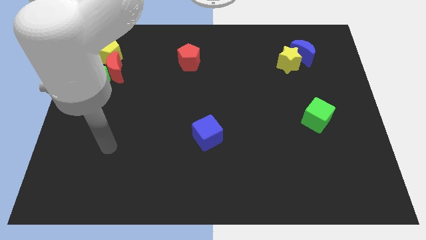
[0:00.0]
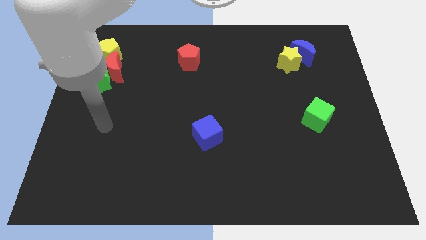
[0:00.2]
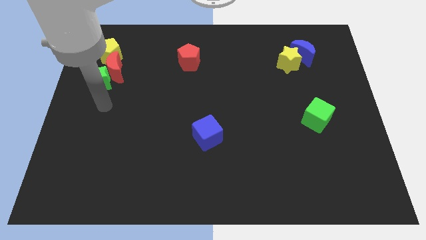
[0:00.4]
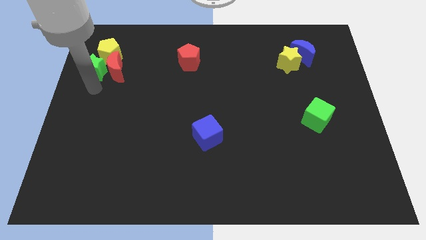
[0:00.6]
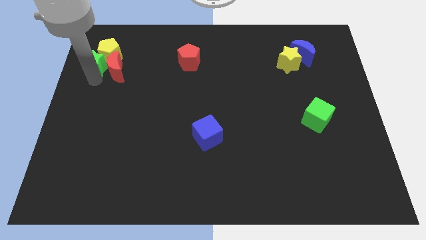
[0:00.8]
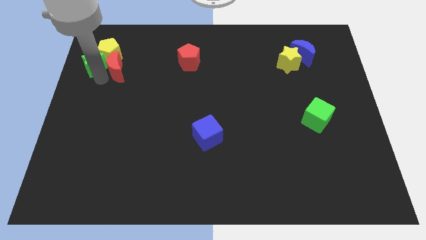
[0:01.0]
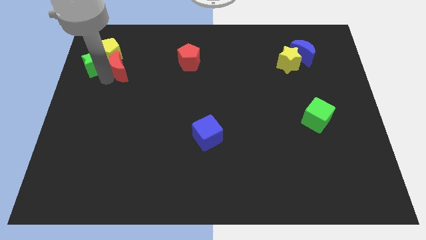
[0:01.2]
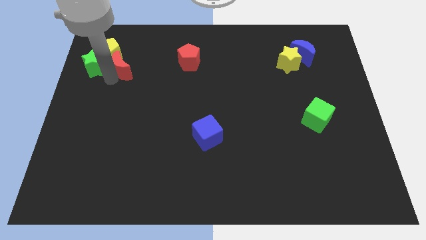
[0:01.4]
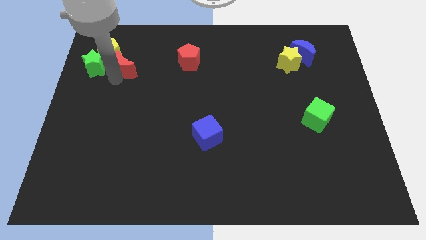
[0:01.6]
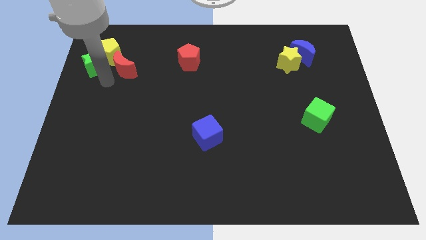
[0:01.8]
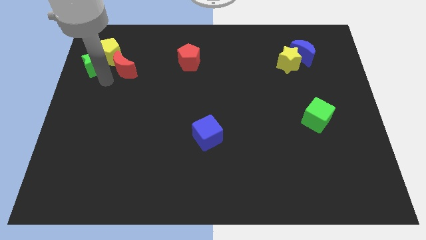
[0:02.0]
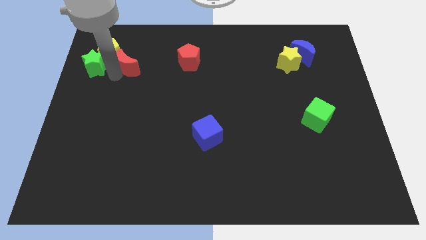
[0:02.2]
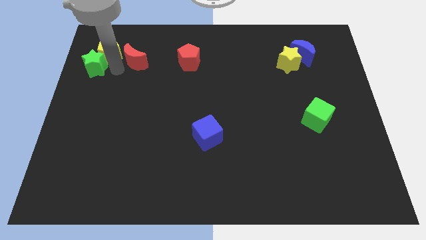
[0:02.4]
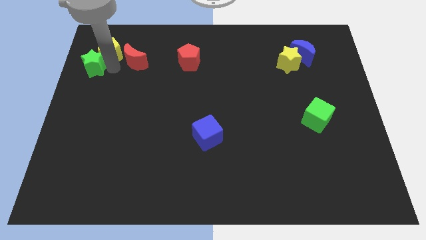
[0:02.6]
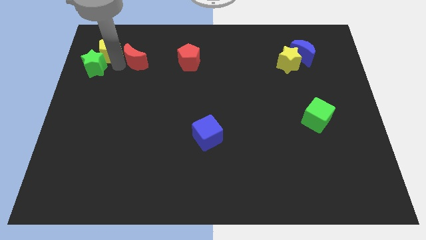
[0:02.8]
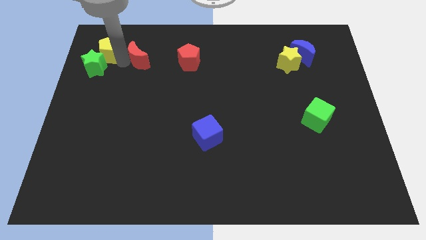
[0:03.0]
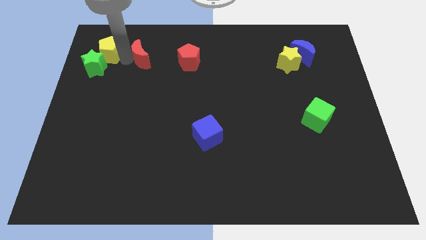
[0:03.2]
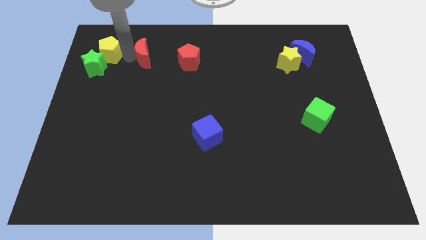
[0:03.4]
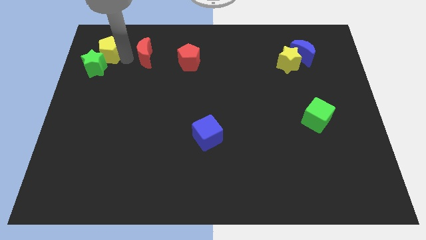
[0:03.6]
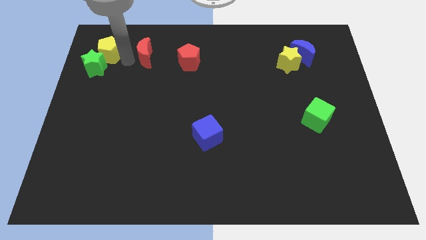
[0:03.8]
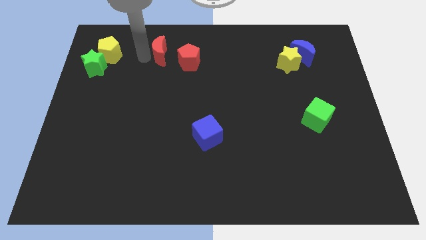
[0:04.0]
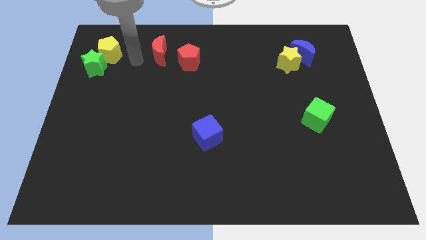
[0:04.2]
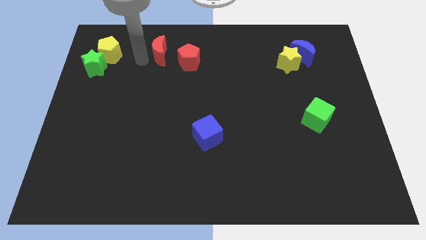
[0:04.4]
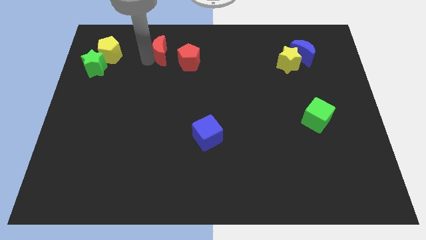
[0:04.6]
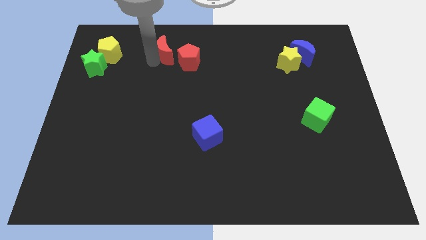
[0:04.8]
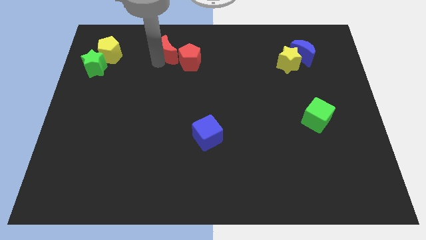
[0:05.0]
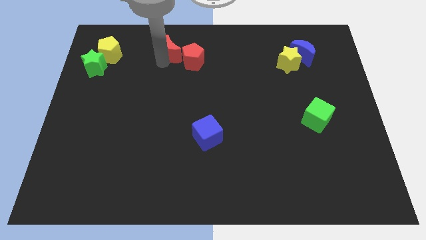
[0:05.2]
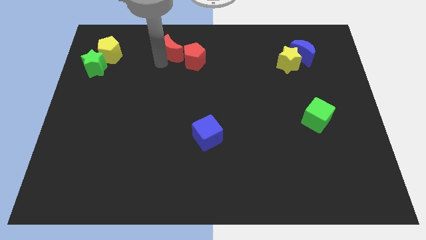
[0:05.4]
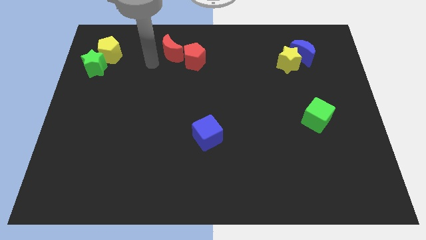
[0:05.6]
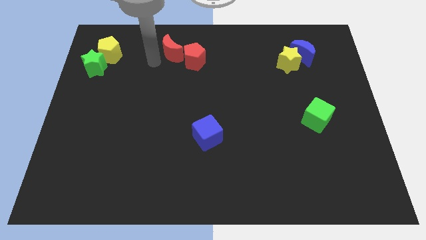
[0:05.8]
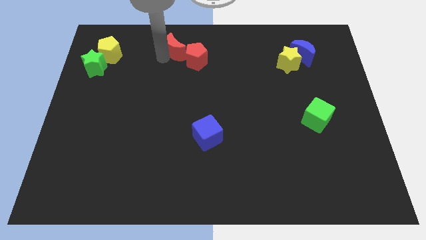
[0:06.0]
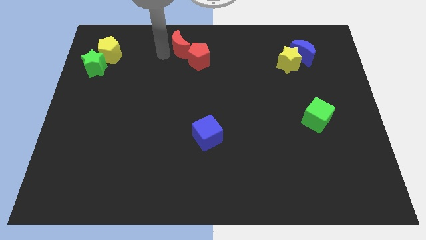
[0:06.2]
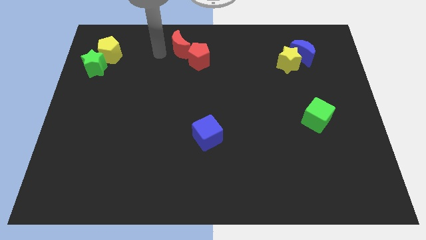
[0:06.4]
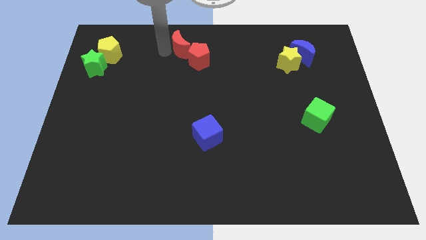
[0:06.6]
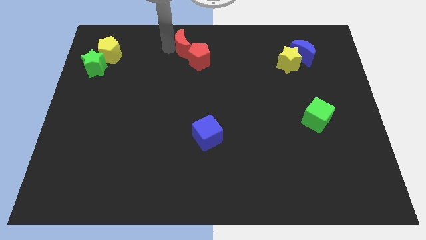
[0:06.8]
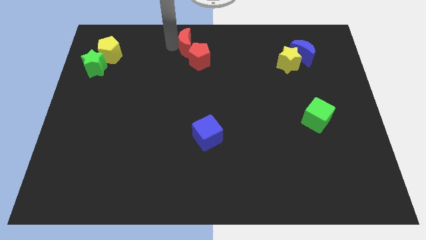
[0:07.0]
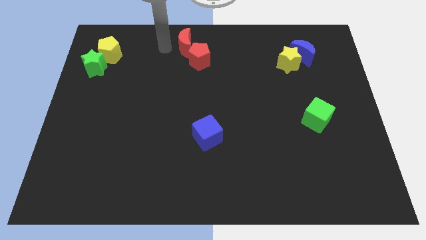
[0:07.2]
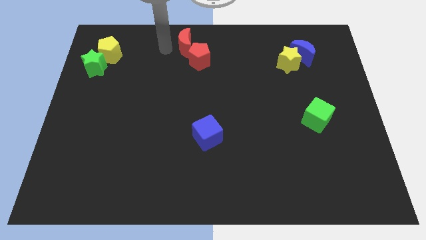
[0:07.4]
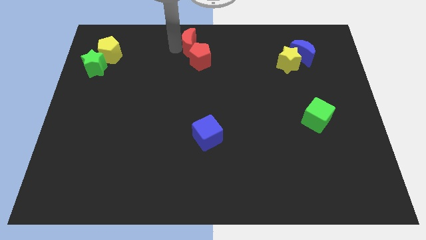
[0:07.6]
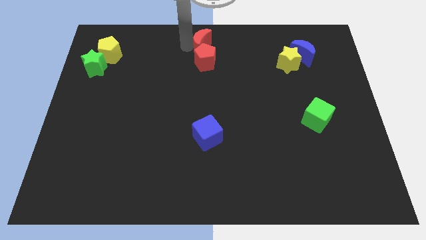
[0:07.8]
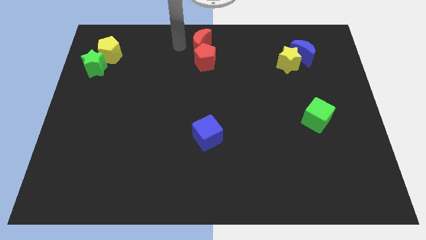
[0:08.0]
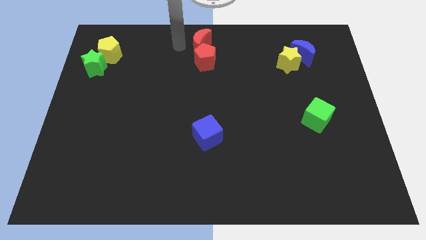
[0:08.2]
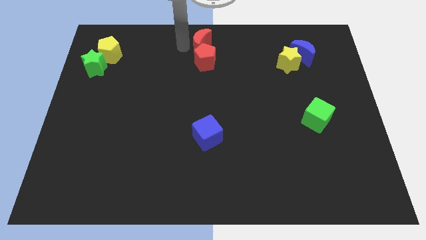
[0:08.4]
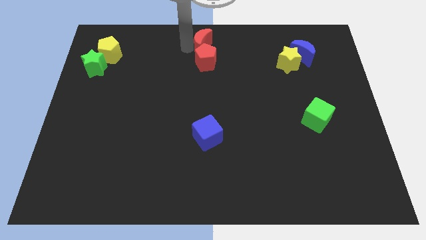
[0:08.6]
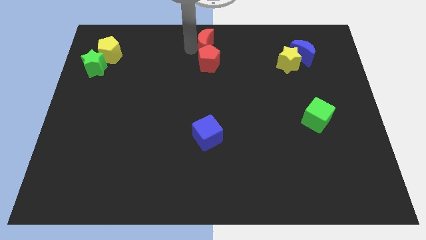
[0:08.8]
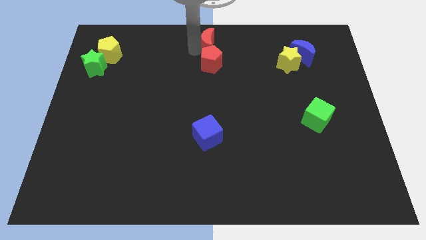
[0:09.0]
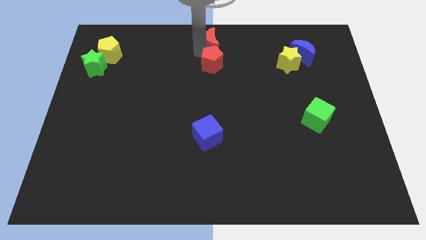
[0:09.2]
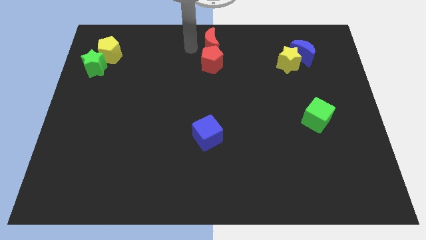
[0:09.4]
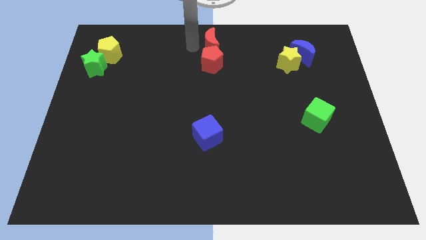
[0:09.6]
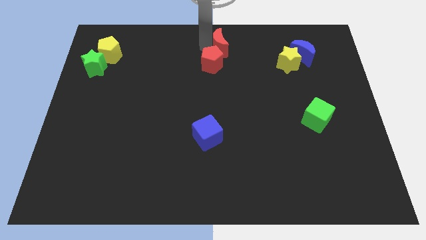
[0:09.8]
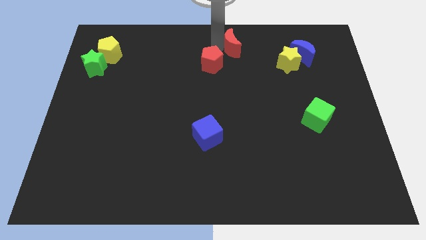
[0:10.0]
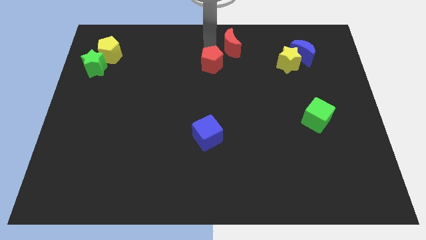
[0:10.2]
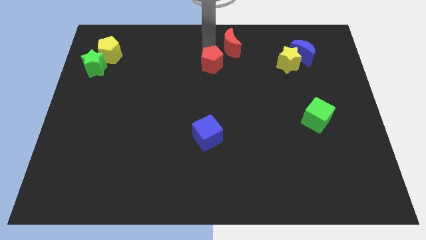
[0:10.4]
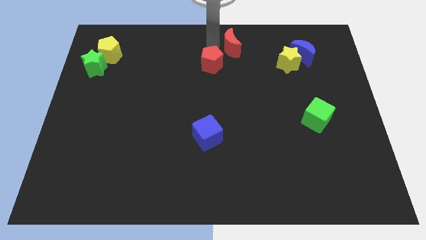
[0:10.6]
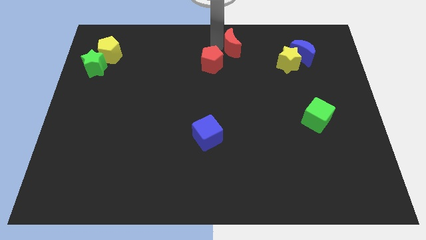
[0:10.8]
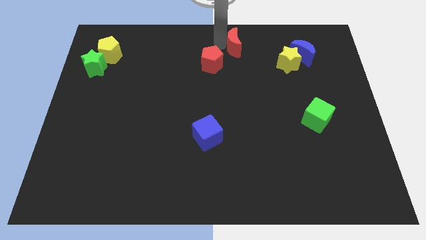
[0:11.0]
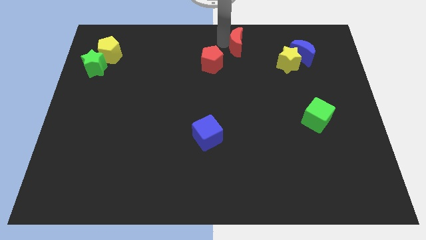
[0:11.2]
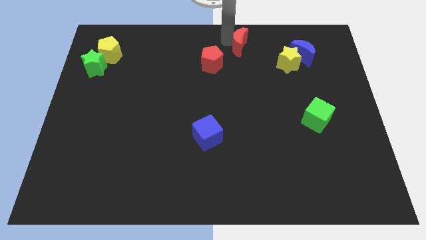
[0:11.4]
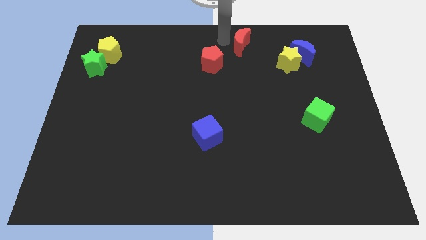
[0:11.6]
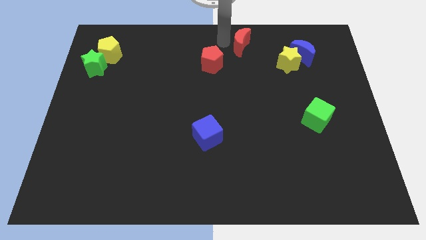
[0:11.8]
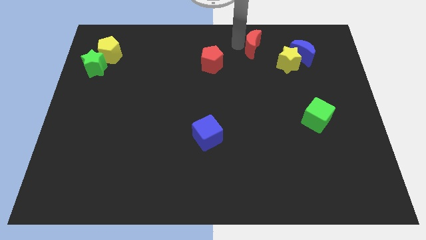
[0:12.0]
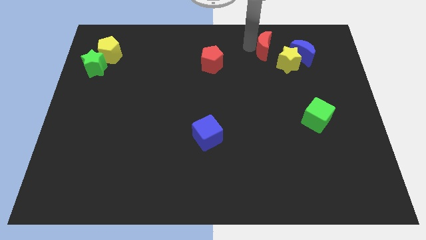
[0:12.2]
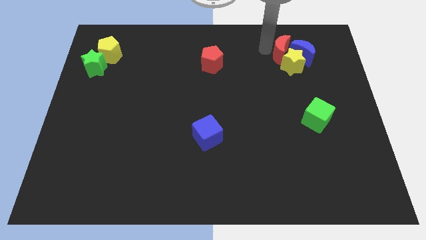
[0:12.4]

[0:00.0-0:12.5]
slide the red moon to the blue moon

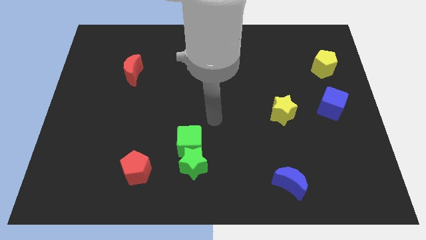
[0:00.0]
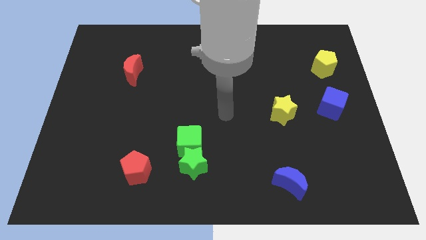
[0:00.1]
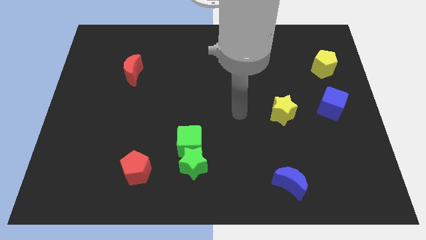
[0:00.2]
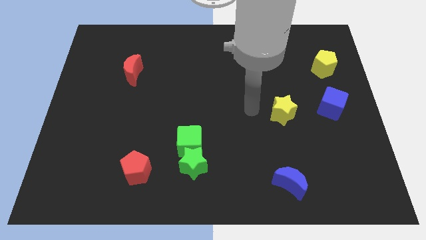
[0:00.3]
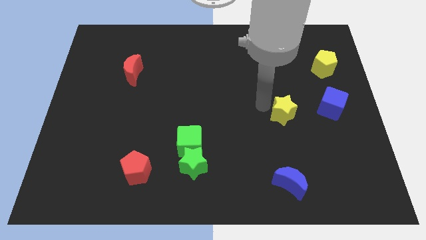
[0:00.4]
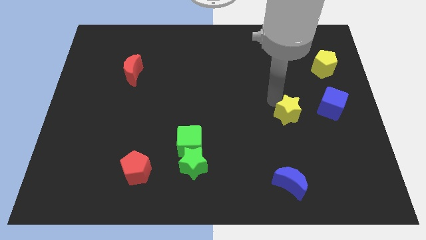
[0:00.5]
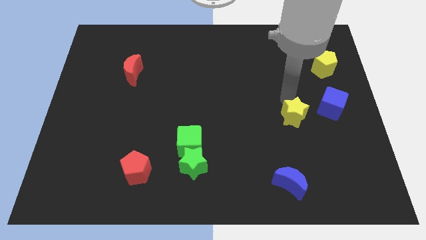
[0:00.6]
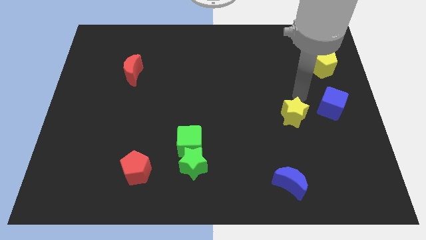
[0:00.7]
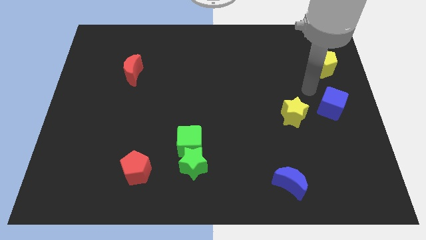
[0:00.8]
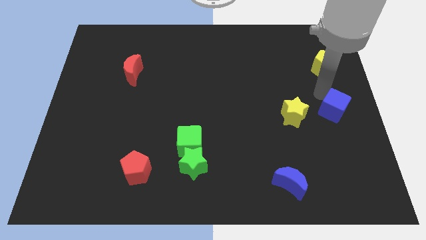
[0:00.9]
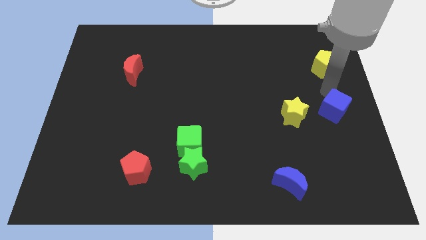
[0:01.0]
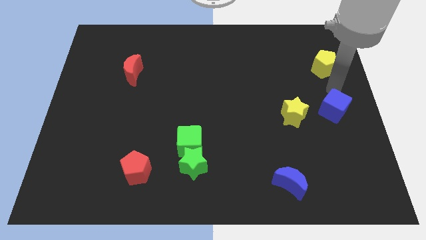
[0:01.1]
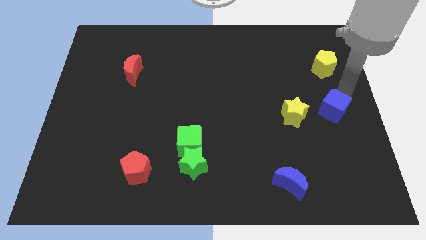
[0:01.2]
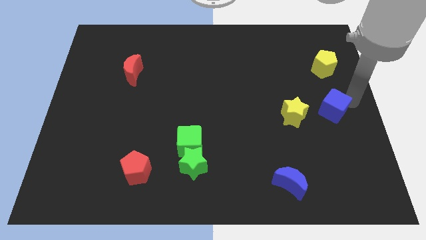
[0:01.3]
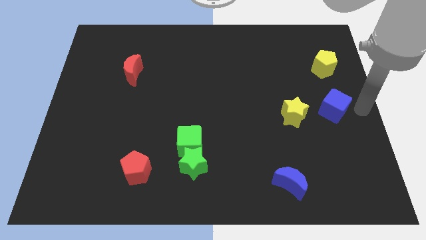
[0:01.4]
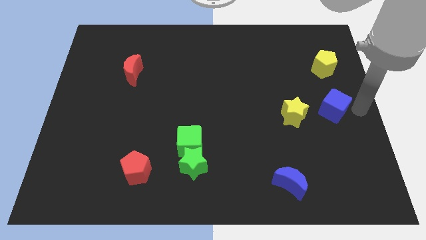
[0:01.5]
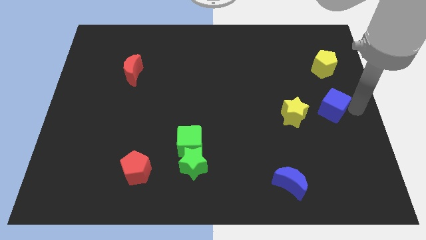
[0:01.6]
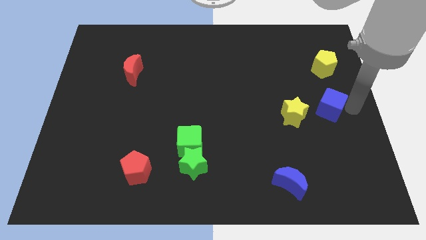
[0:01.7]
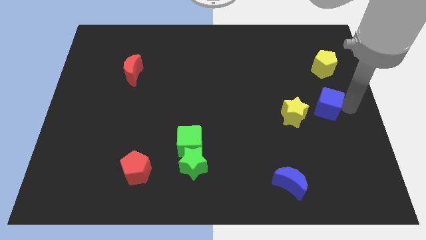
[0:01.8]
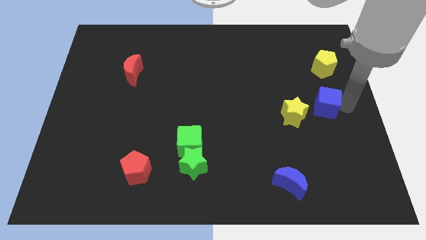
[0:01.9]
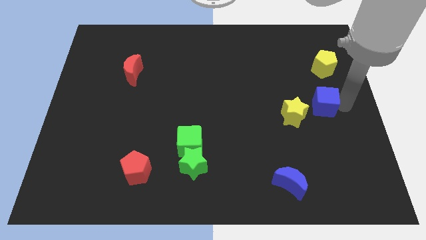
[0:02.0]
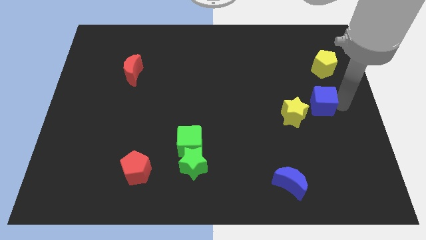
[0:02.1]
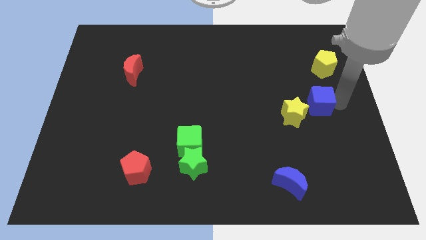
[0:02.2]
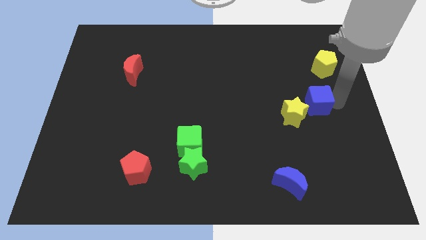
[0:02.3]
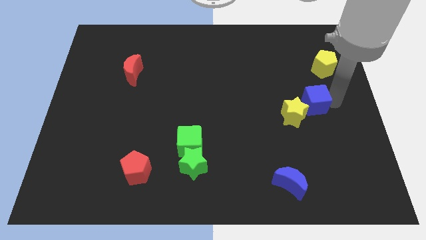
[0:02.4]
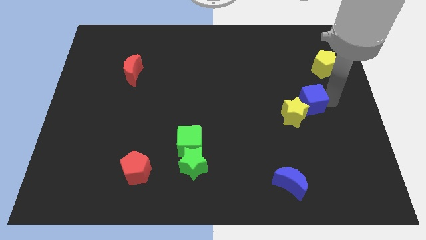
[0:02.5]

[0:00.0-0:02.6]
push the blue cube to the yellow star
